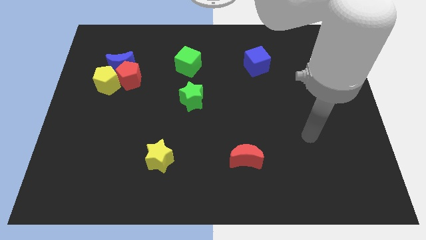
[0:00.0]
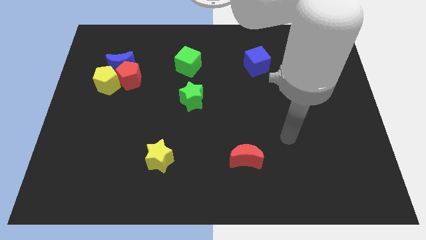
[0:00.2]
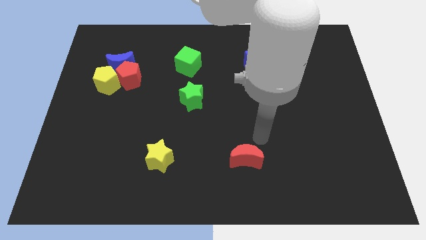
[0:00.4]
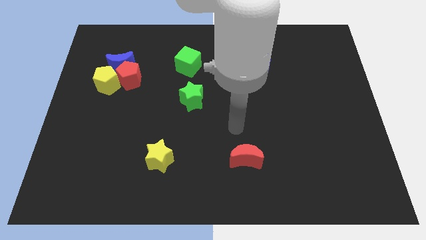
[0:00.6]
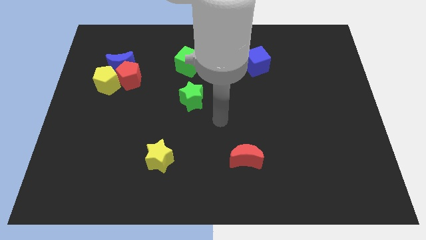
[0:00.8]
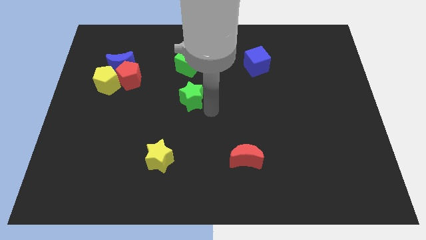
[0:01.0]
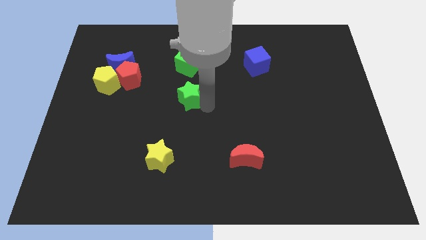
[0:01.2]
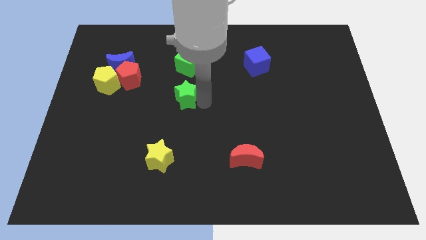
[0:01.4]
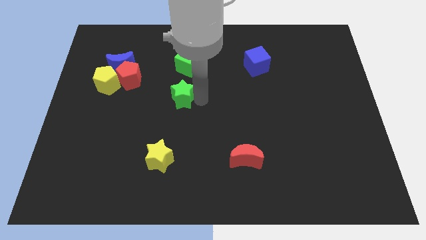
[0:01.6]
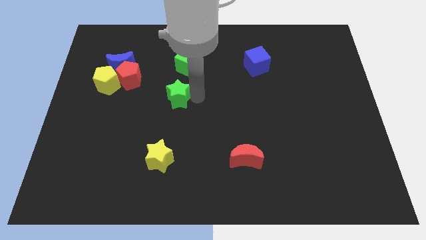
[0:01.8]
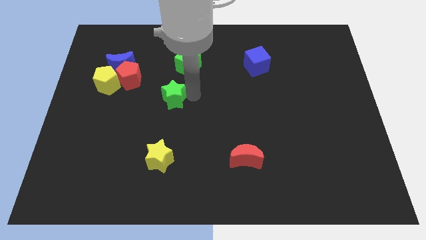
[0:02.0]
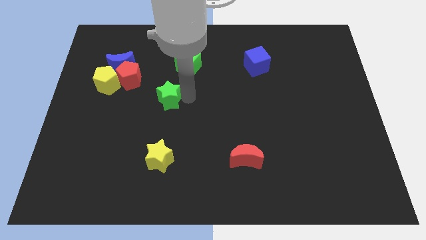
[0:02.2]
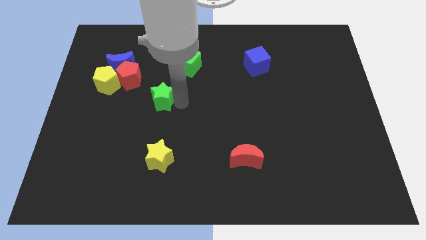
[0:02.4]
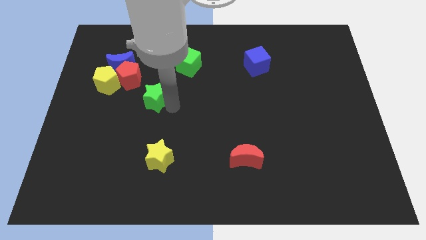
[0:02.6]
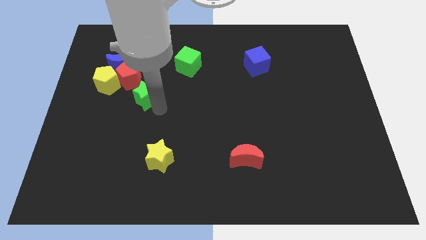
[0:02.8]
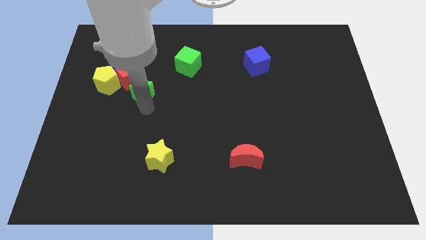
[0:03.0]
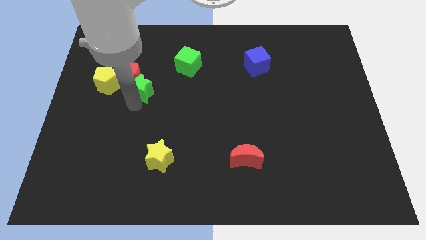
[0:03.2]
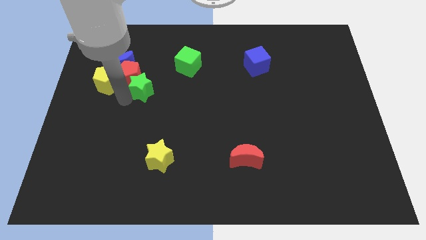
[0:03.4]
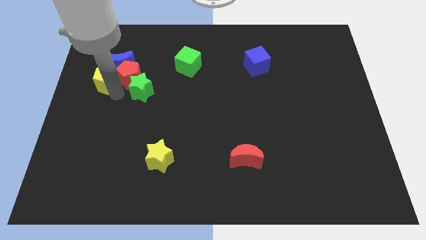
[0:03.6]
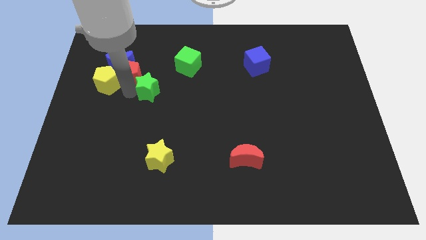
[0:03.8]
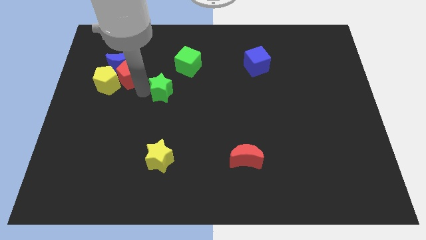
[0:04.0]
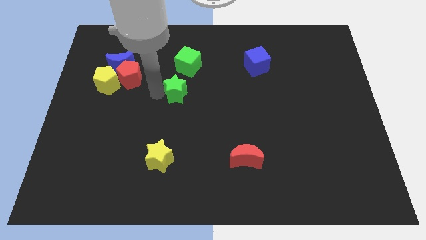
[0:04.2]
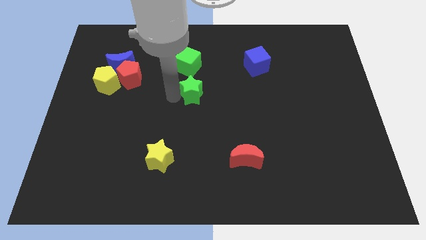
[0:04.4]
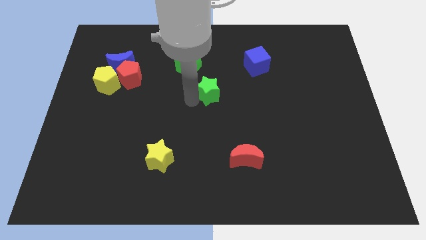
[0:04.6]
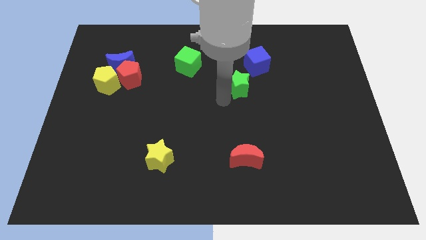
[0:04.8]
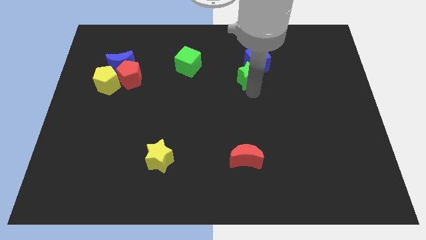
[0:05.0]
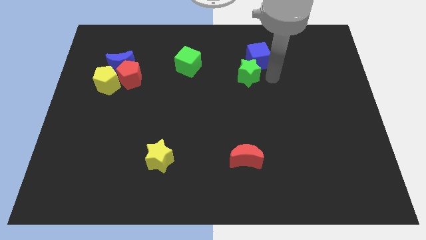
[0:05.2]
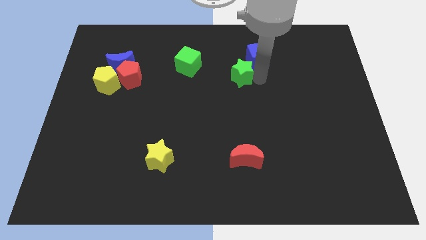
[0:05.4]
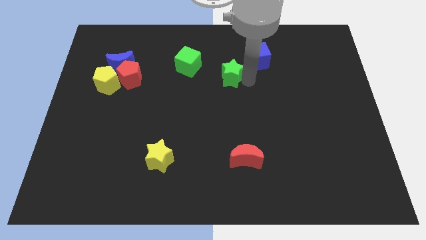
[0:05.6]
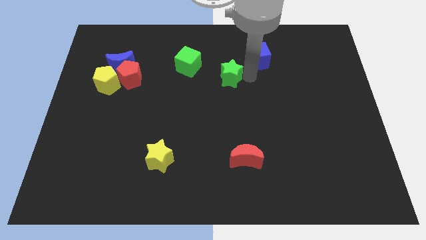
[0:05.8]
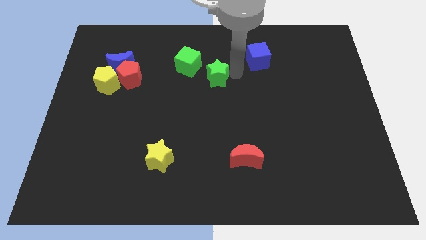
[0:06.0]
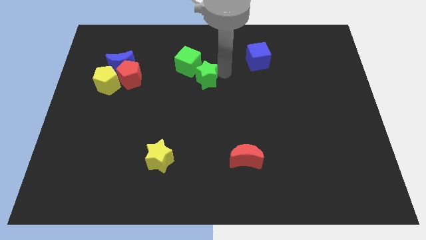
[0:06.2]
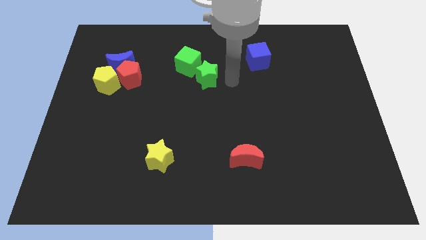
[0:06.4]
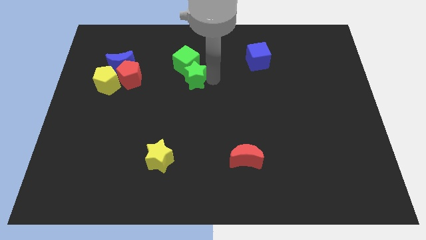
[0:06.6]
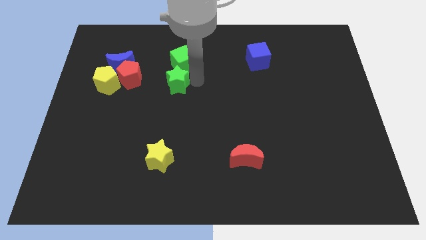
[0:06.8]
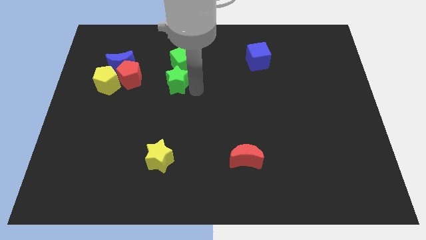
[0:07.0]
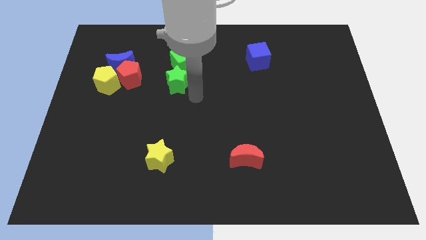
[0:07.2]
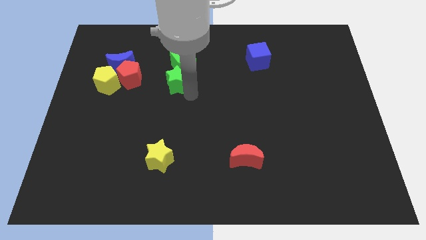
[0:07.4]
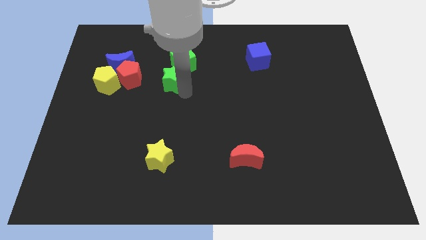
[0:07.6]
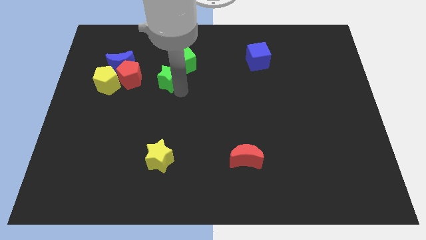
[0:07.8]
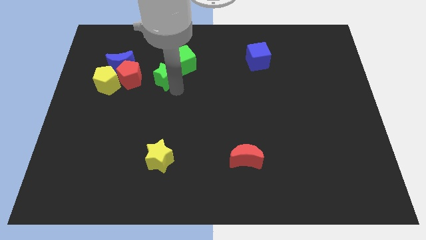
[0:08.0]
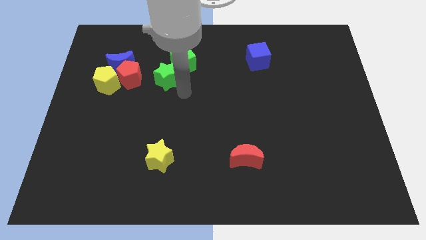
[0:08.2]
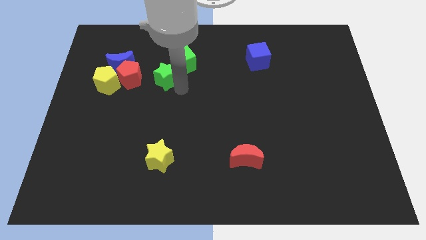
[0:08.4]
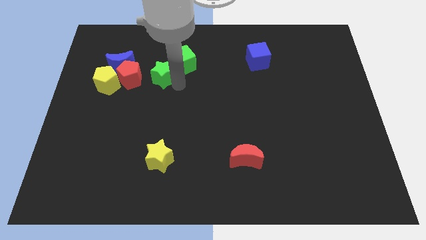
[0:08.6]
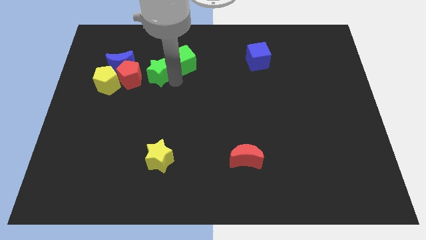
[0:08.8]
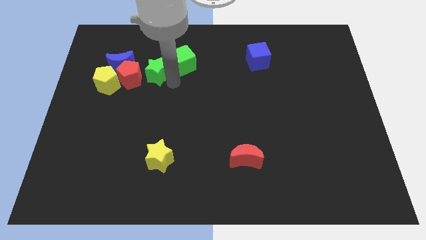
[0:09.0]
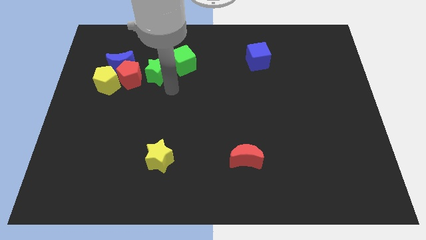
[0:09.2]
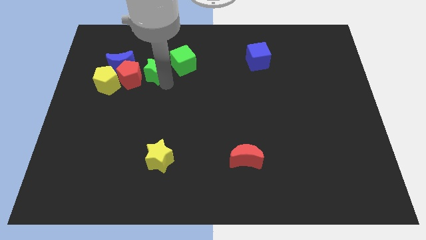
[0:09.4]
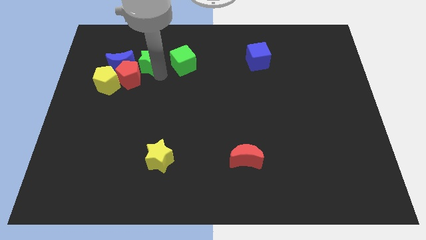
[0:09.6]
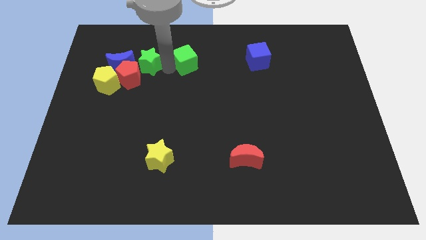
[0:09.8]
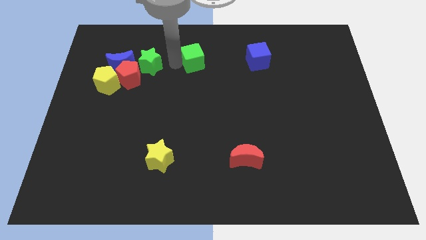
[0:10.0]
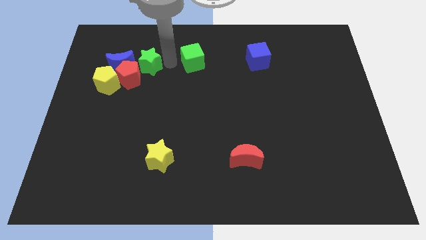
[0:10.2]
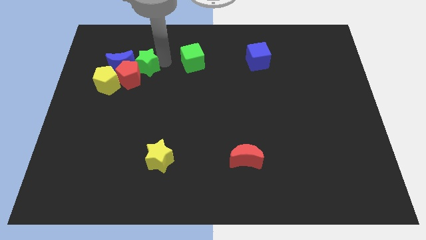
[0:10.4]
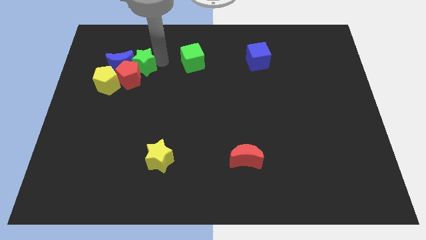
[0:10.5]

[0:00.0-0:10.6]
push the green star close to the blue moon

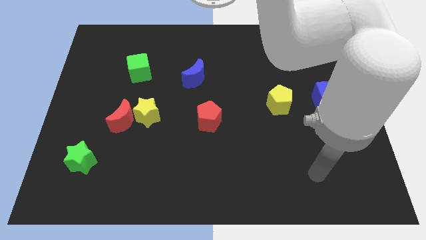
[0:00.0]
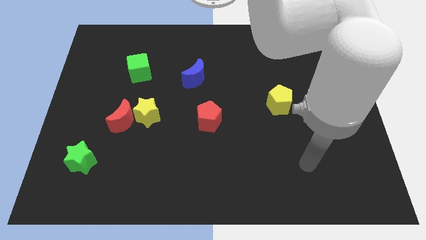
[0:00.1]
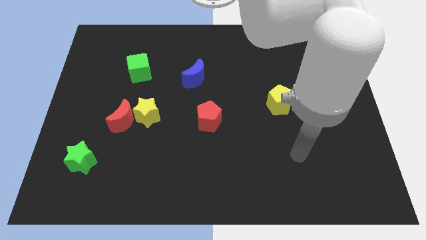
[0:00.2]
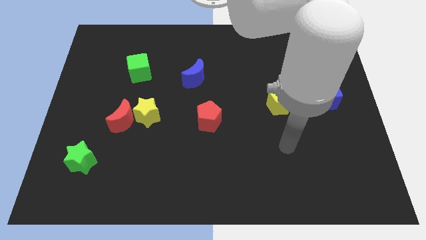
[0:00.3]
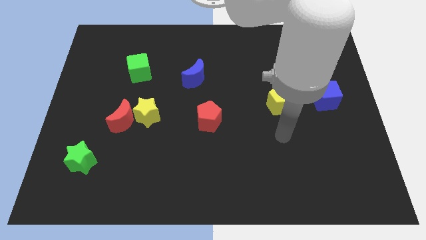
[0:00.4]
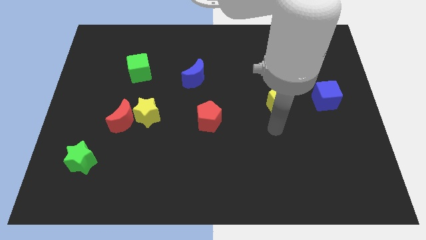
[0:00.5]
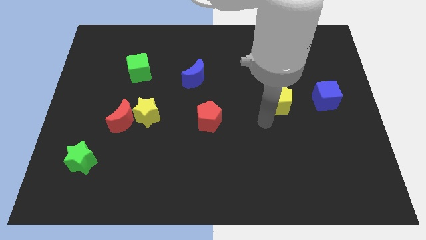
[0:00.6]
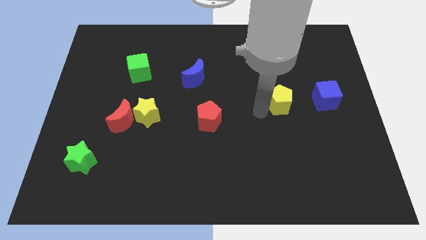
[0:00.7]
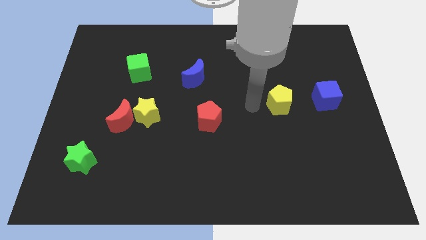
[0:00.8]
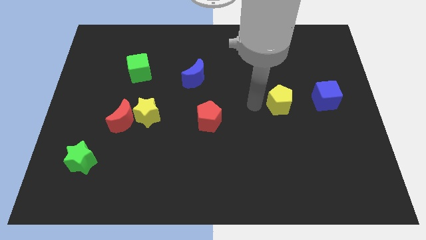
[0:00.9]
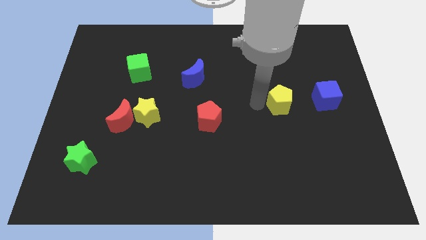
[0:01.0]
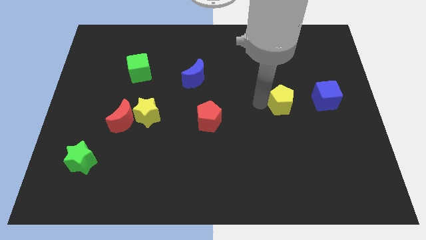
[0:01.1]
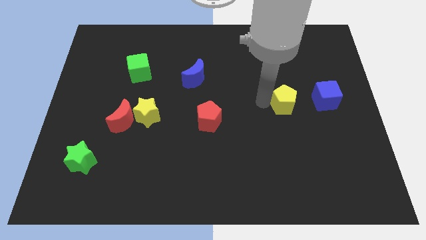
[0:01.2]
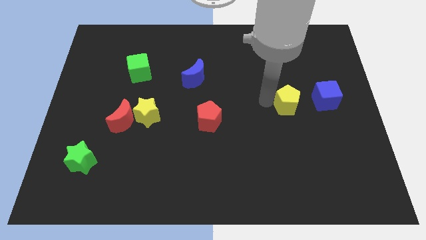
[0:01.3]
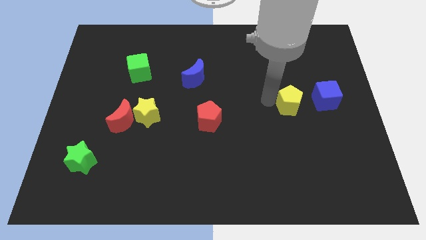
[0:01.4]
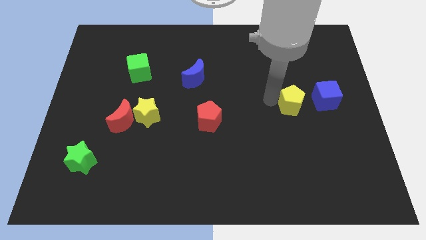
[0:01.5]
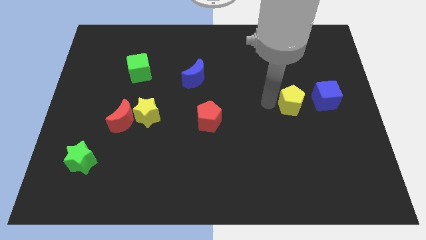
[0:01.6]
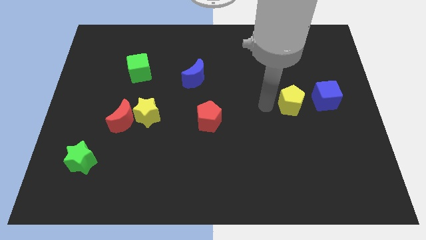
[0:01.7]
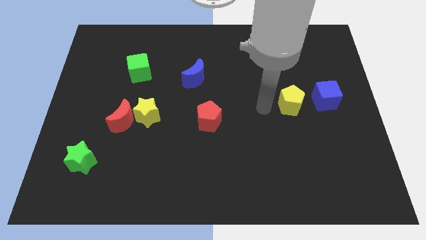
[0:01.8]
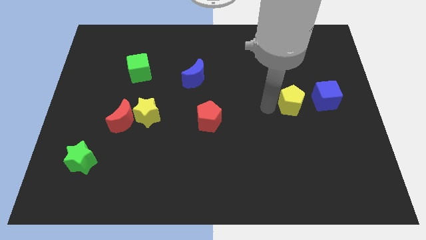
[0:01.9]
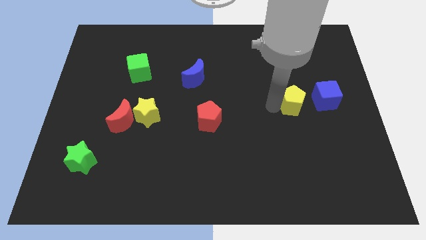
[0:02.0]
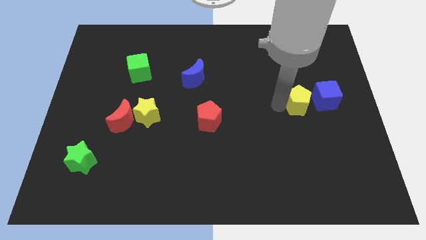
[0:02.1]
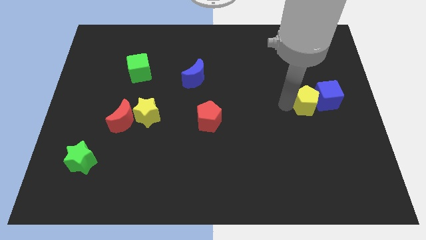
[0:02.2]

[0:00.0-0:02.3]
move the yellow pentagon to the blue cube
